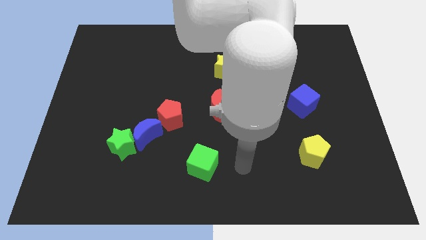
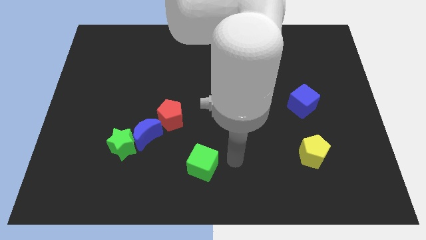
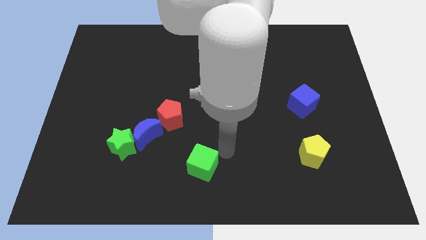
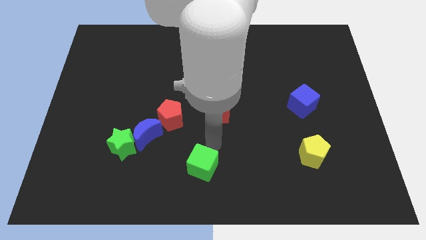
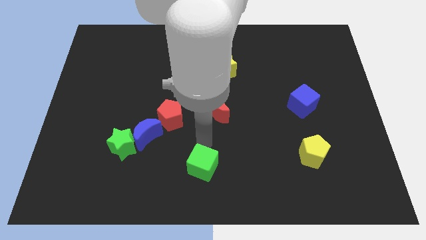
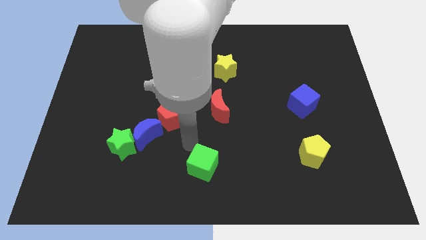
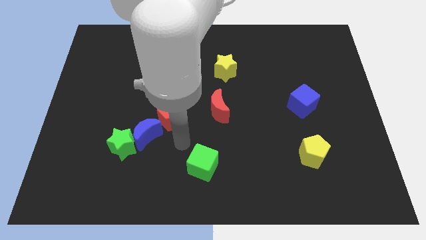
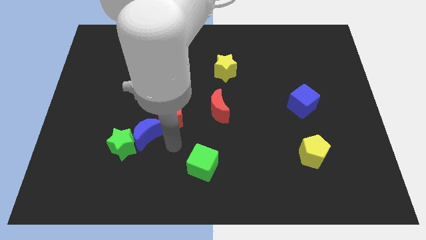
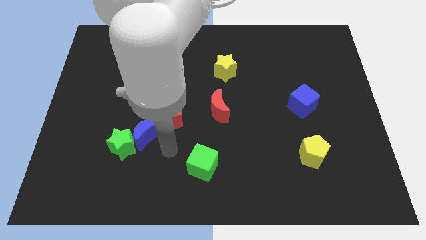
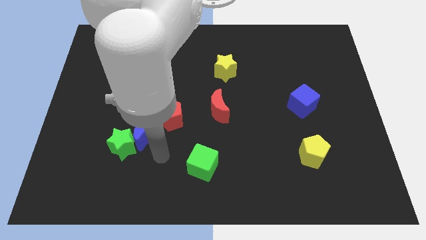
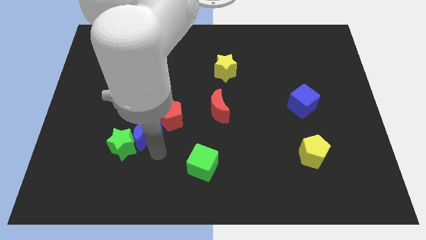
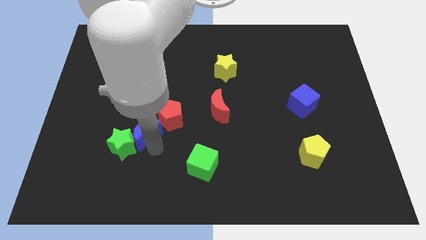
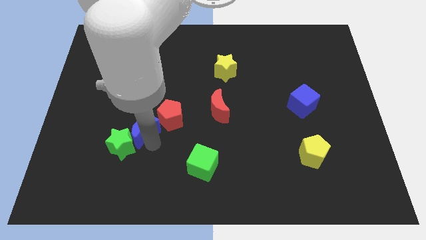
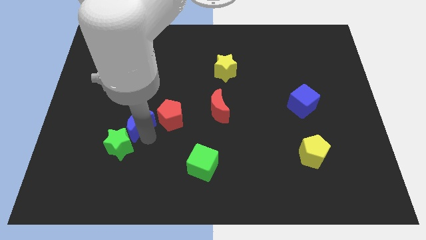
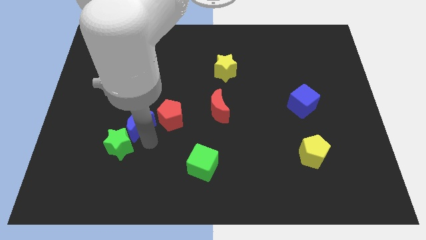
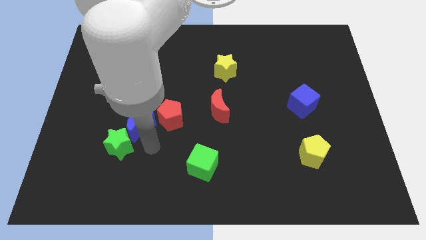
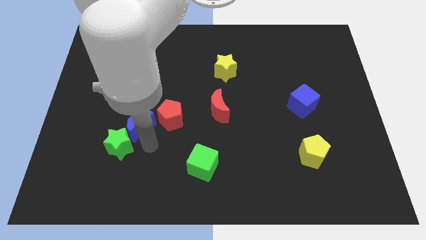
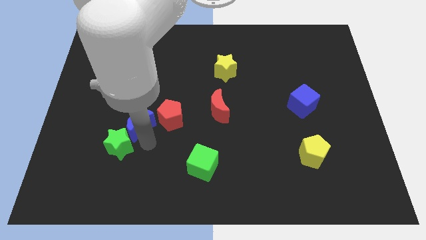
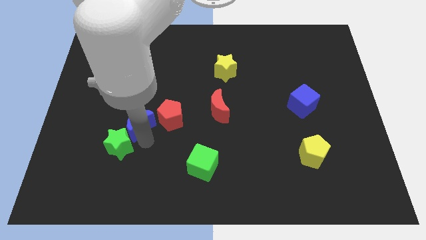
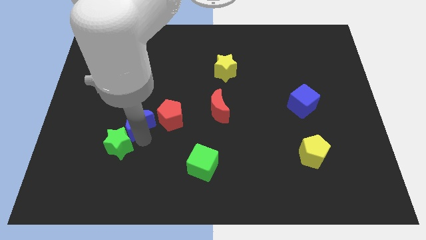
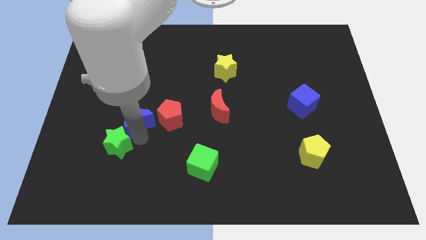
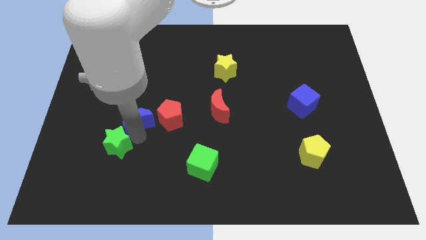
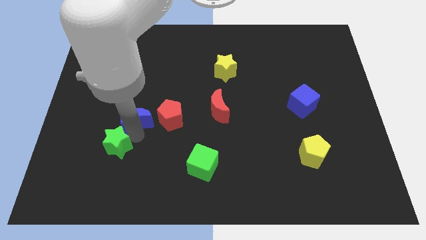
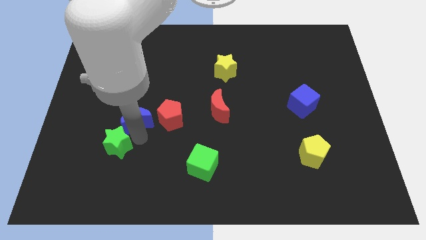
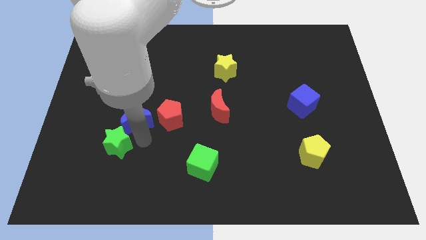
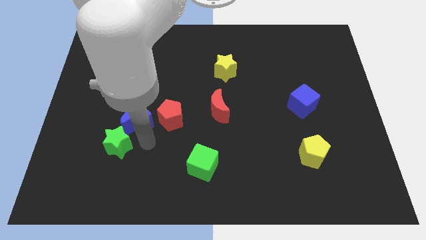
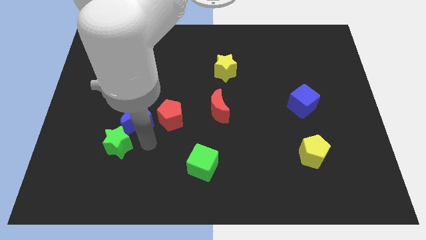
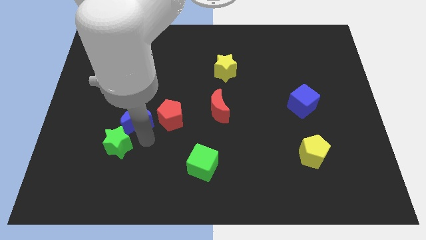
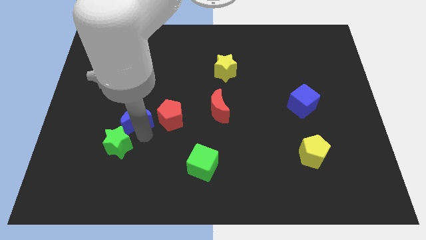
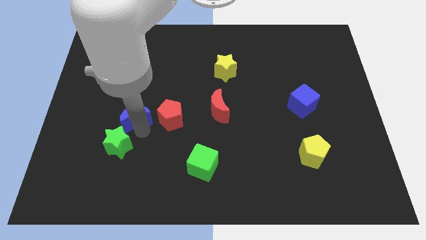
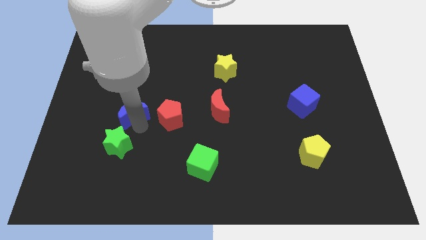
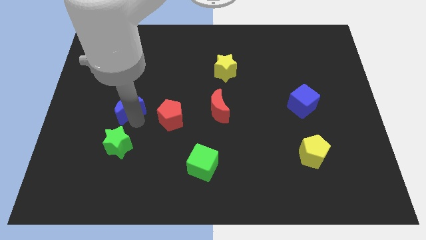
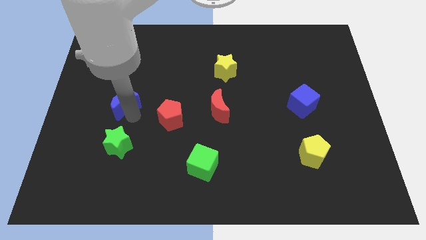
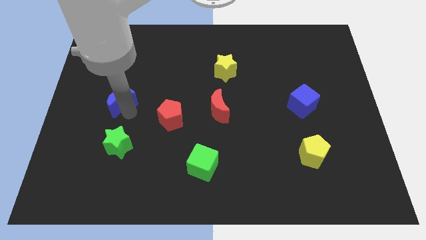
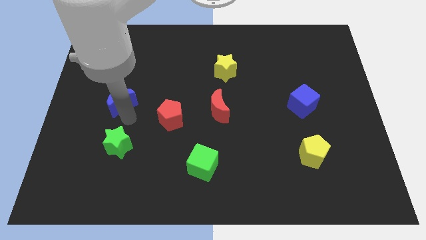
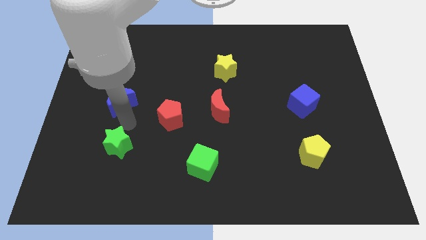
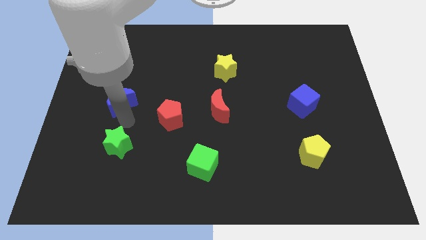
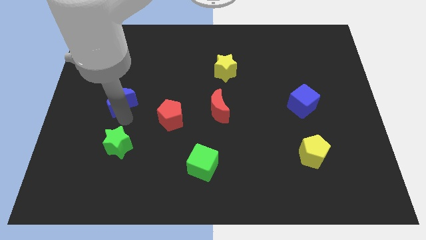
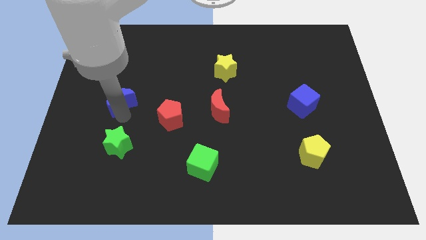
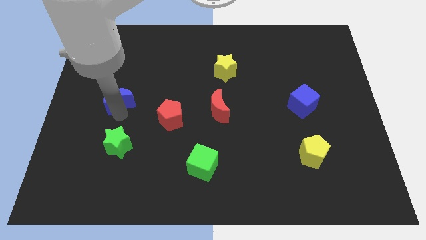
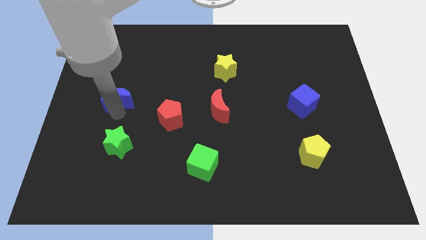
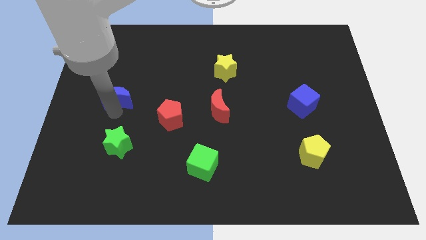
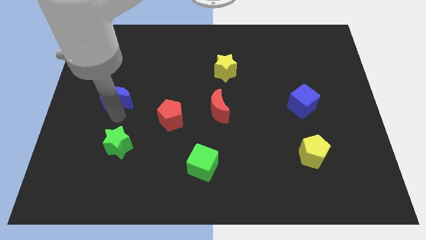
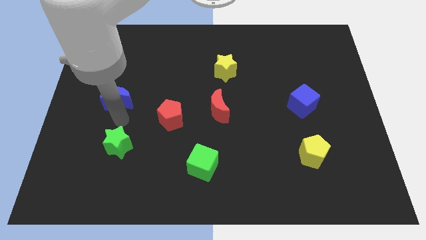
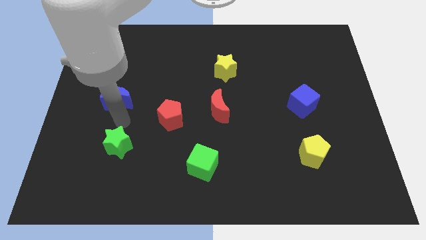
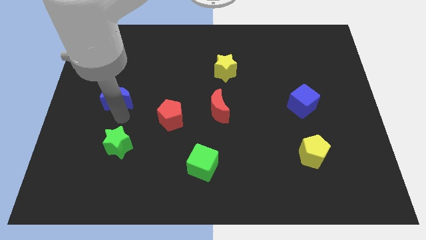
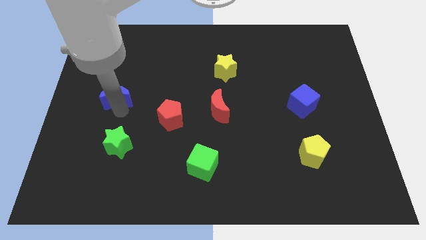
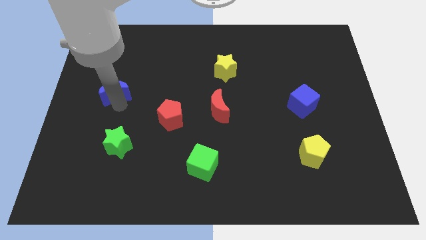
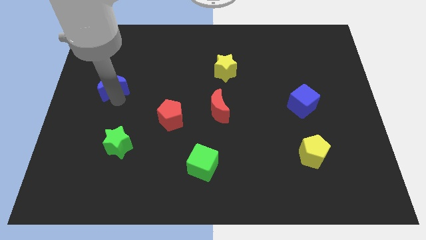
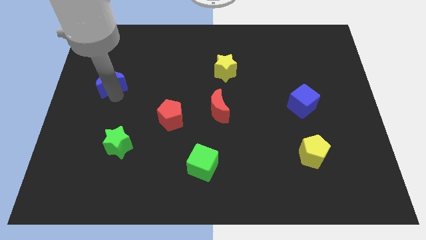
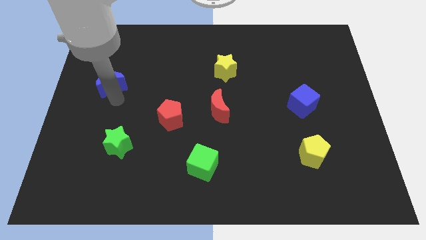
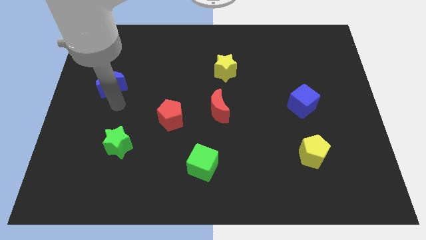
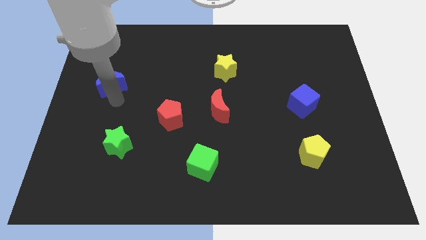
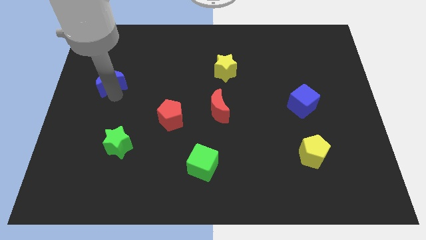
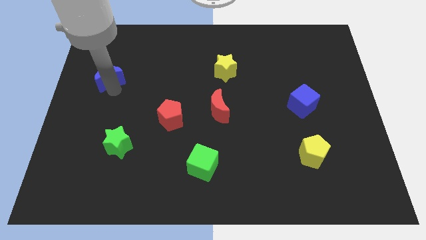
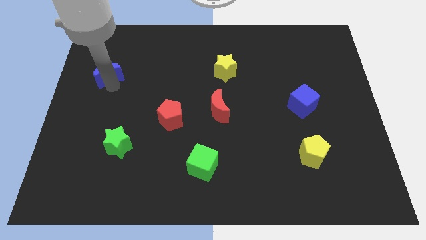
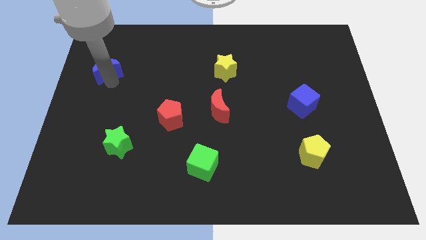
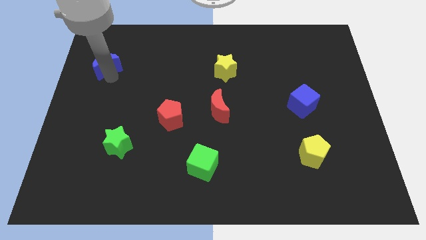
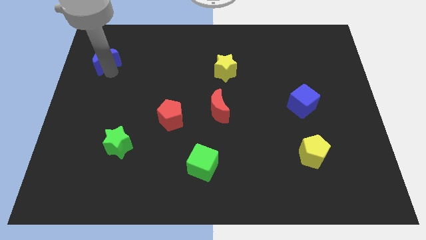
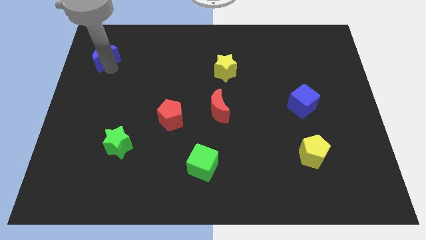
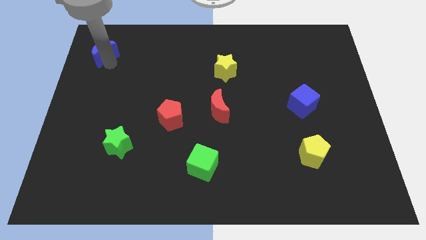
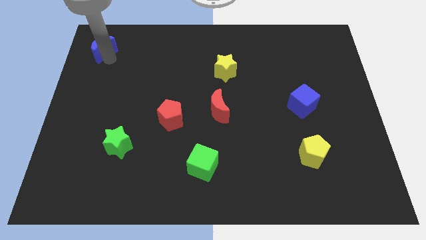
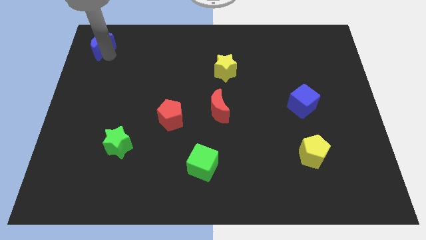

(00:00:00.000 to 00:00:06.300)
move the blue moon to the top left corner
